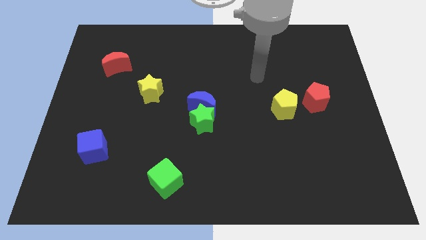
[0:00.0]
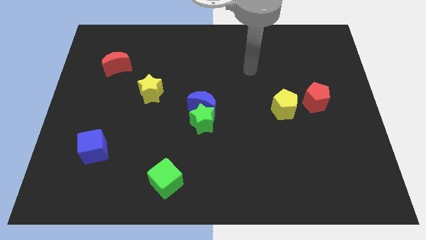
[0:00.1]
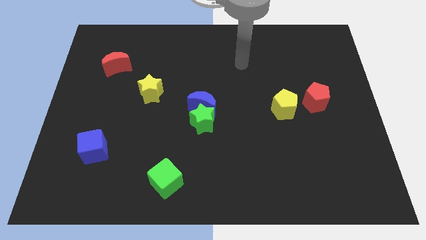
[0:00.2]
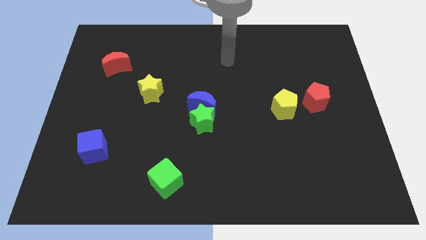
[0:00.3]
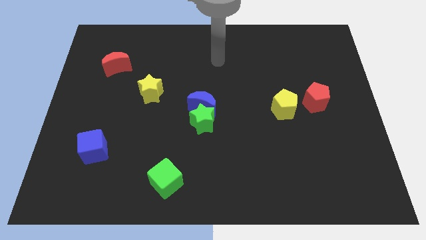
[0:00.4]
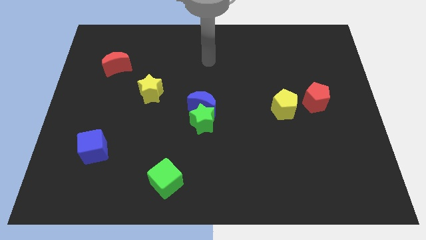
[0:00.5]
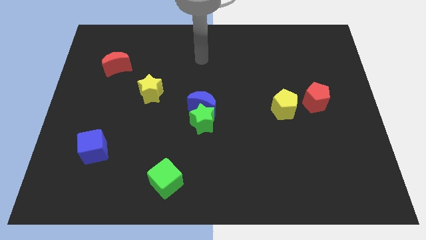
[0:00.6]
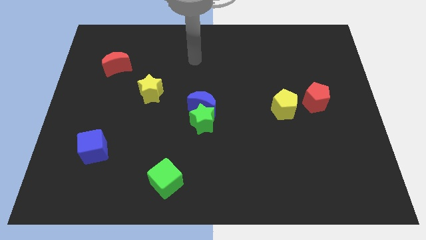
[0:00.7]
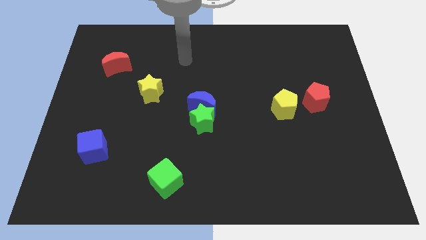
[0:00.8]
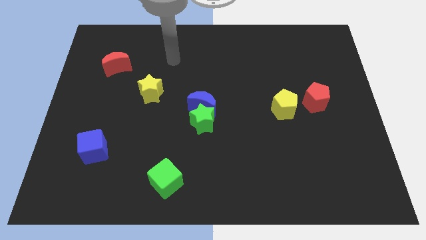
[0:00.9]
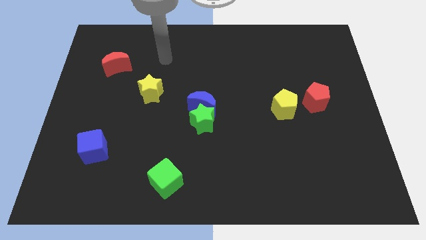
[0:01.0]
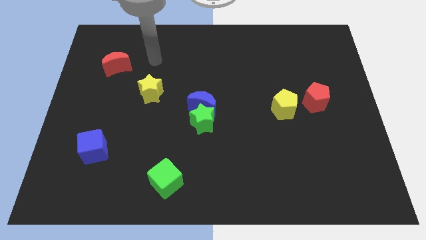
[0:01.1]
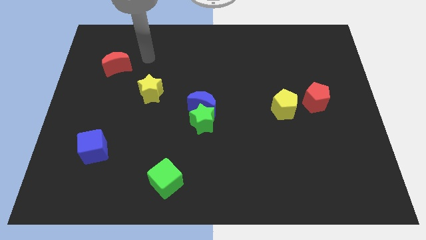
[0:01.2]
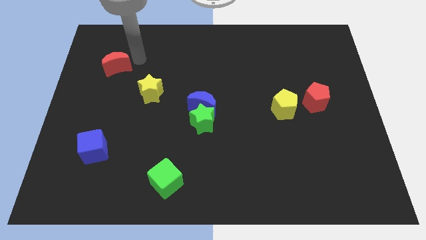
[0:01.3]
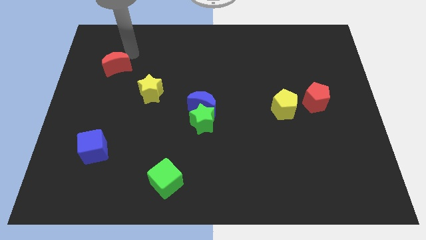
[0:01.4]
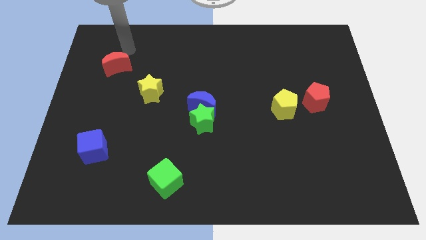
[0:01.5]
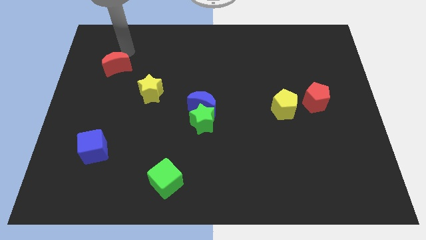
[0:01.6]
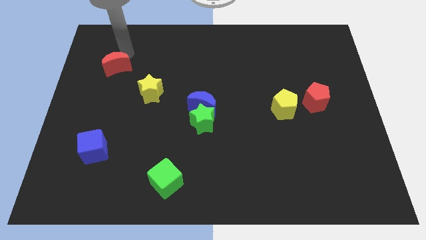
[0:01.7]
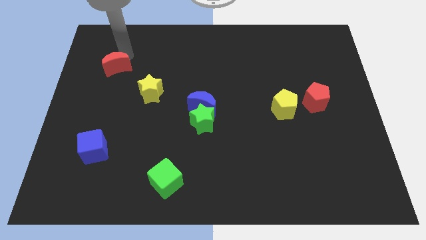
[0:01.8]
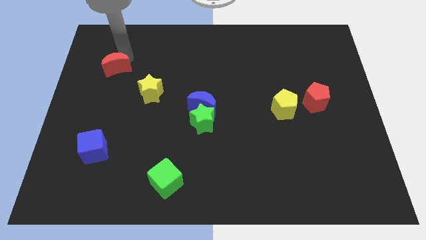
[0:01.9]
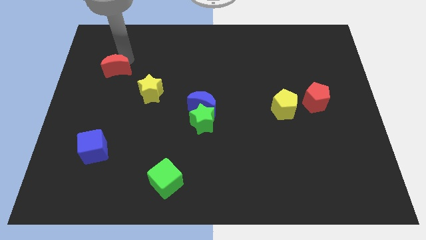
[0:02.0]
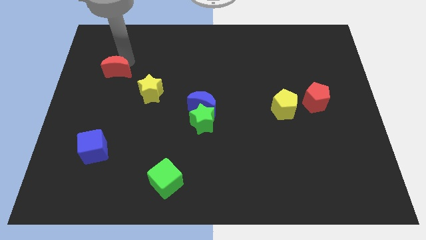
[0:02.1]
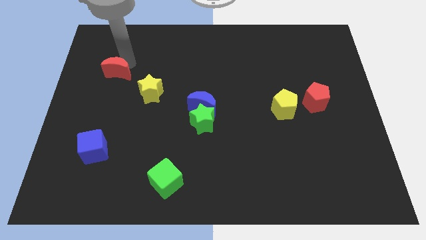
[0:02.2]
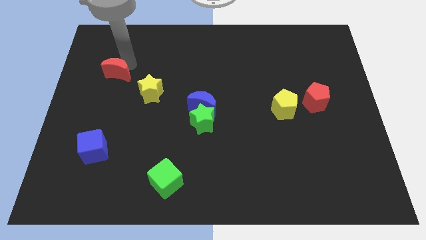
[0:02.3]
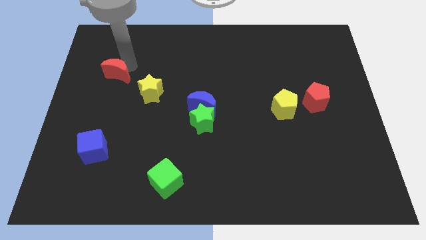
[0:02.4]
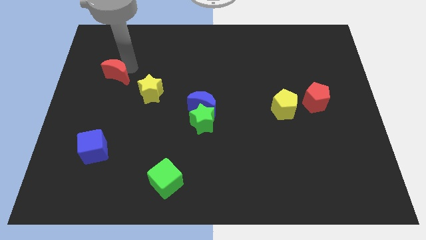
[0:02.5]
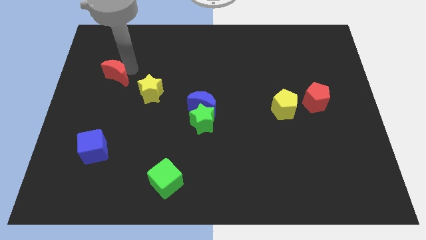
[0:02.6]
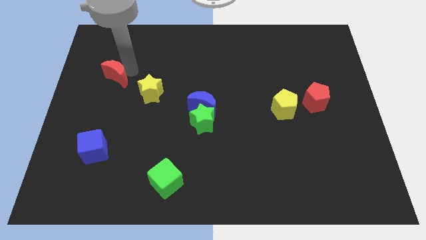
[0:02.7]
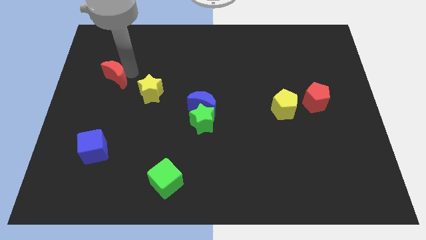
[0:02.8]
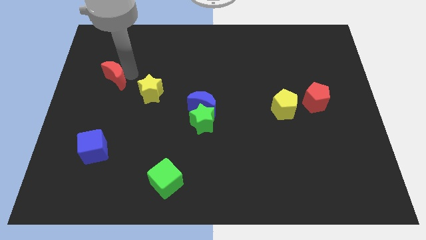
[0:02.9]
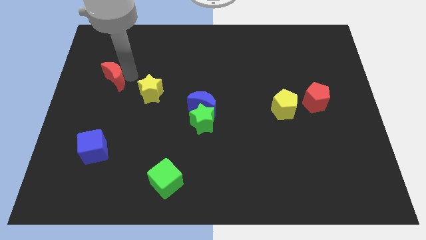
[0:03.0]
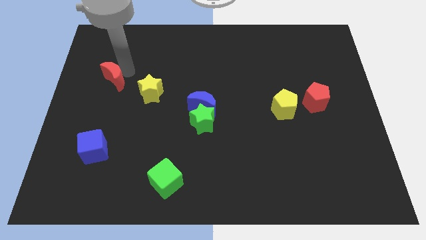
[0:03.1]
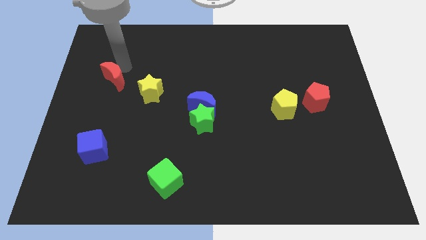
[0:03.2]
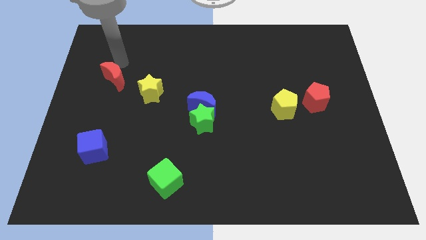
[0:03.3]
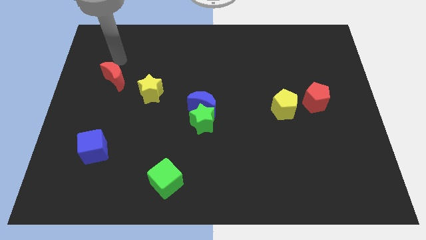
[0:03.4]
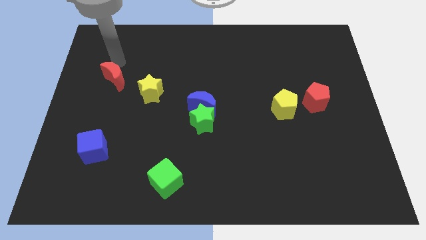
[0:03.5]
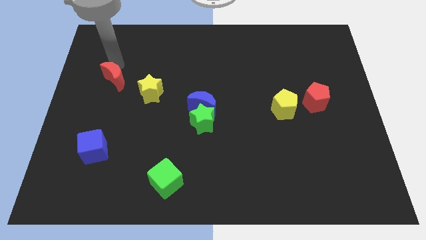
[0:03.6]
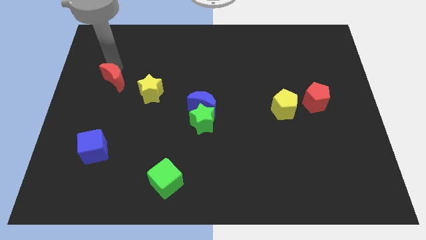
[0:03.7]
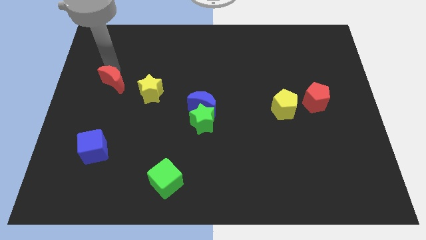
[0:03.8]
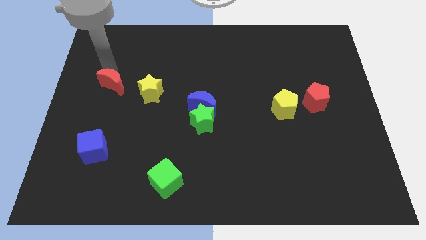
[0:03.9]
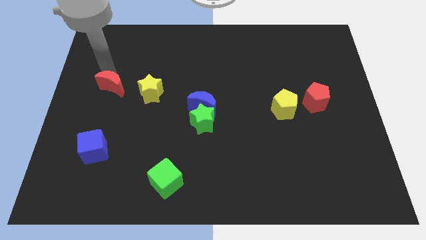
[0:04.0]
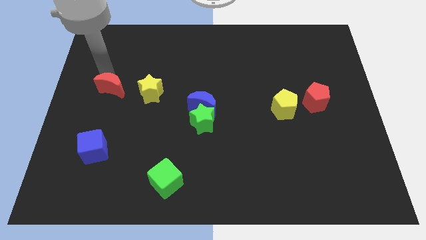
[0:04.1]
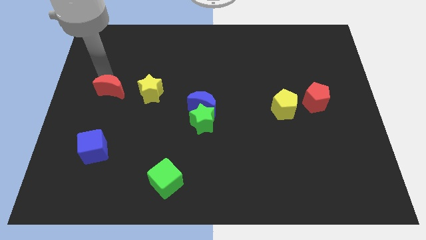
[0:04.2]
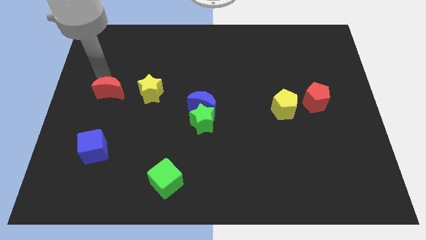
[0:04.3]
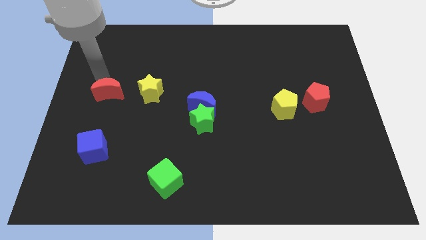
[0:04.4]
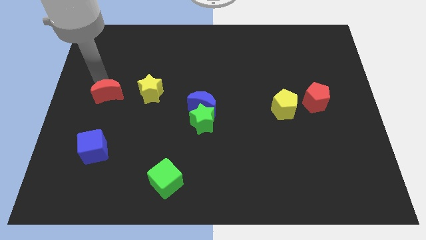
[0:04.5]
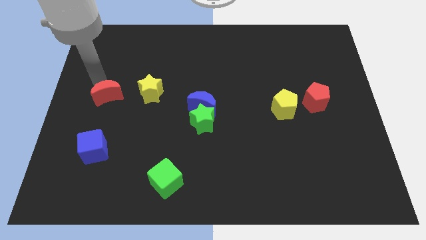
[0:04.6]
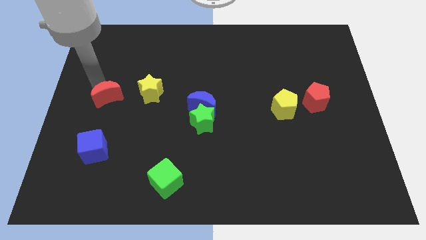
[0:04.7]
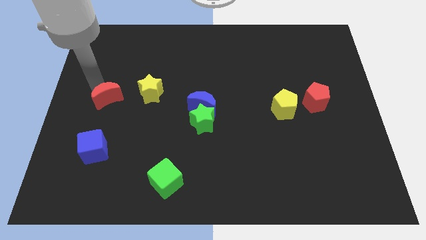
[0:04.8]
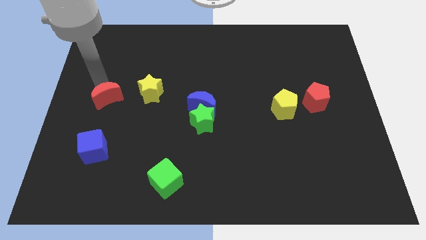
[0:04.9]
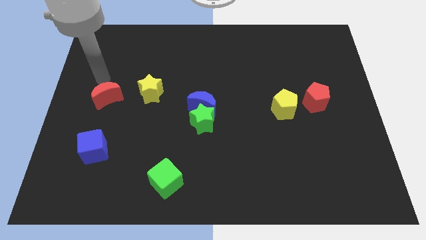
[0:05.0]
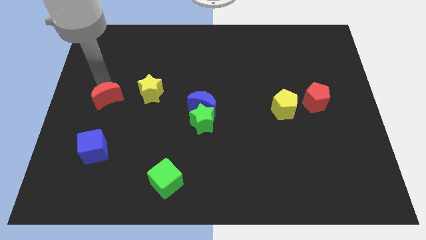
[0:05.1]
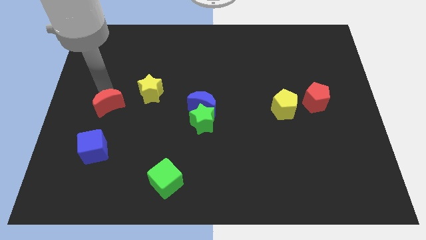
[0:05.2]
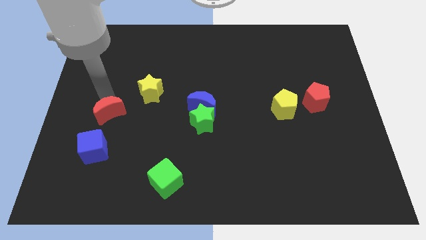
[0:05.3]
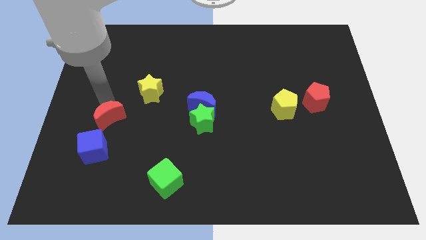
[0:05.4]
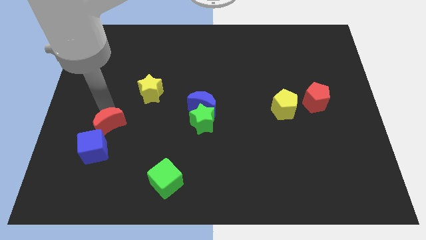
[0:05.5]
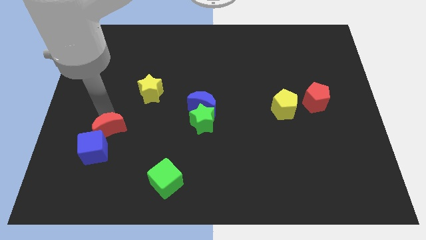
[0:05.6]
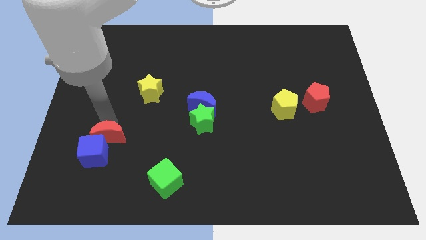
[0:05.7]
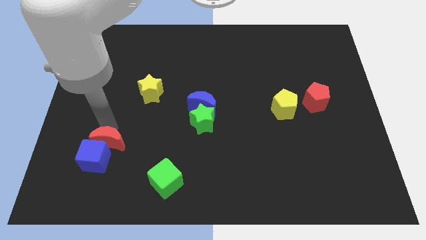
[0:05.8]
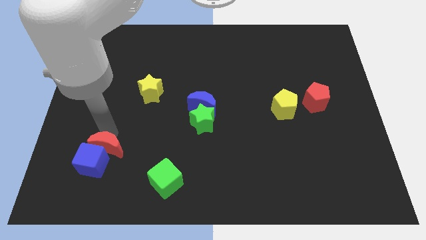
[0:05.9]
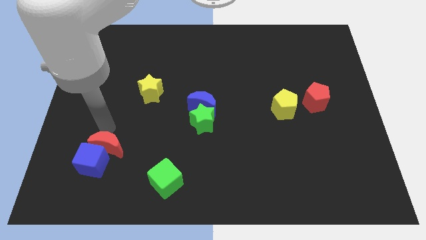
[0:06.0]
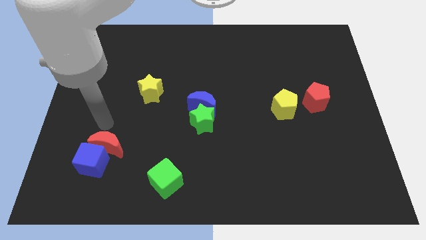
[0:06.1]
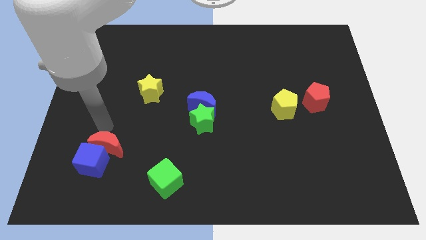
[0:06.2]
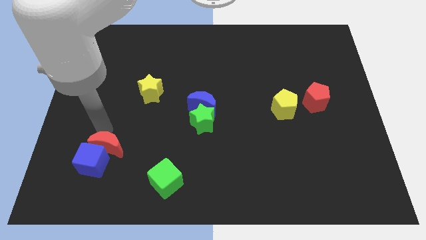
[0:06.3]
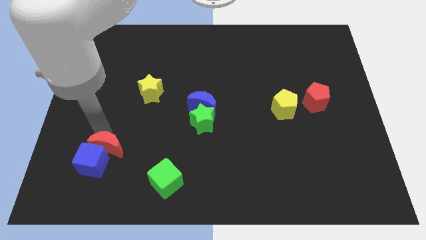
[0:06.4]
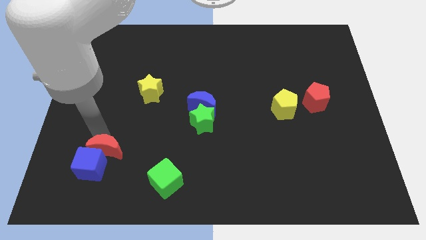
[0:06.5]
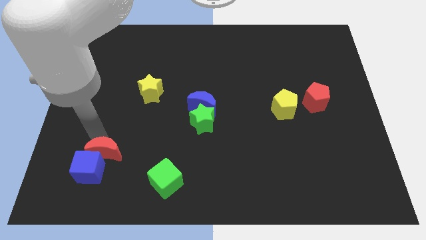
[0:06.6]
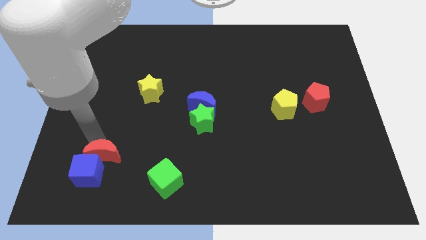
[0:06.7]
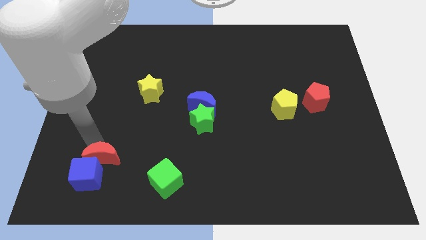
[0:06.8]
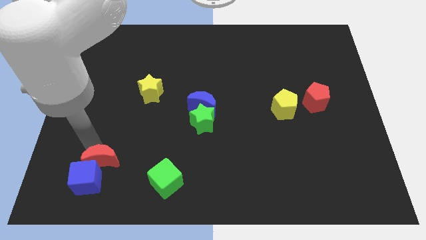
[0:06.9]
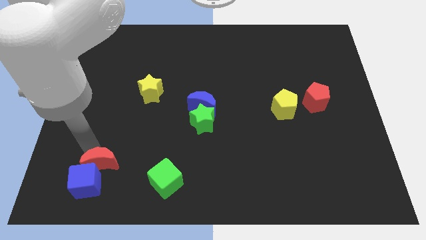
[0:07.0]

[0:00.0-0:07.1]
slide the red moon just left of the green cube

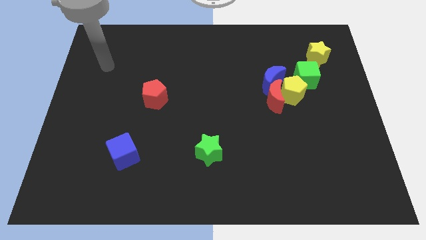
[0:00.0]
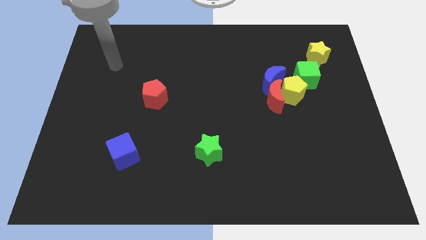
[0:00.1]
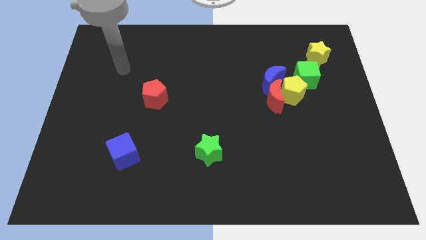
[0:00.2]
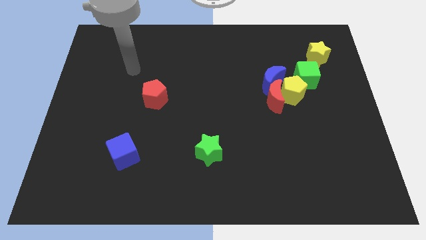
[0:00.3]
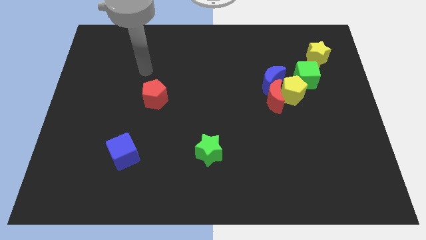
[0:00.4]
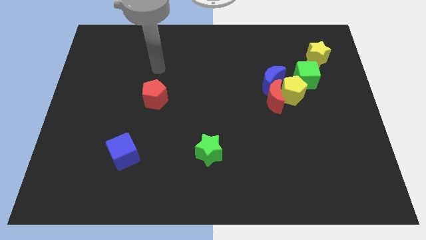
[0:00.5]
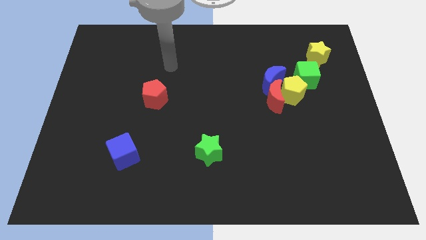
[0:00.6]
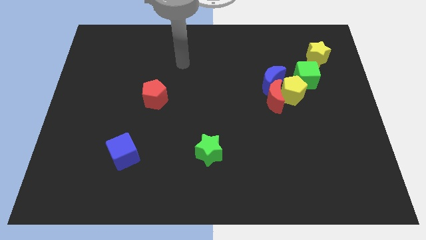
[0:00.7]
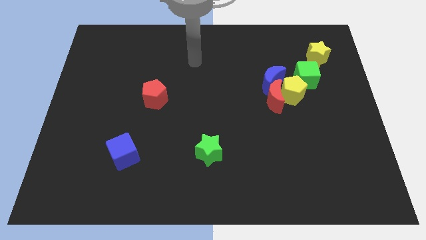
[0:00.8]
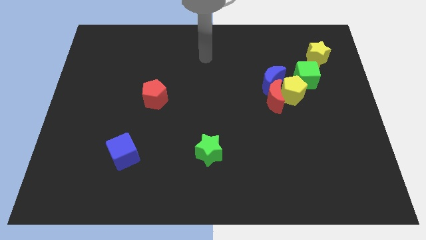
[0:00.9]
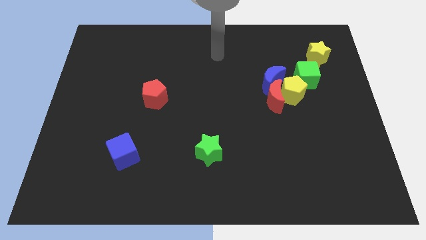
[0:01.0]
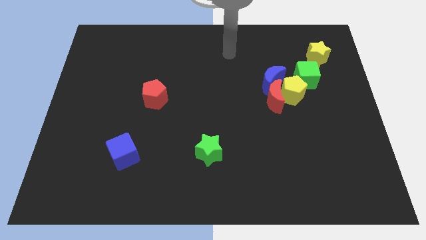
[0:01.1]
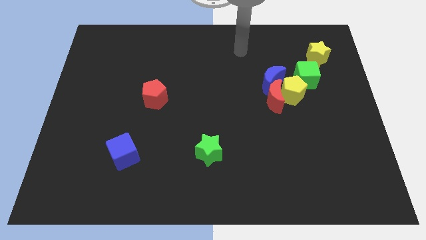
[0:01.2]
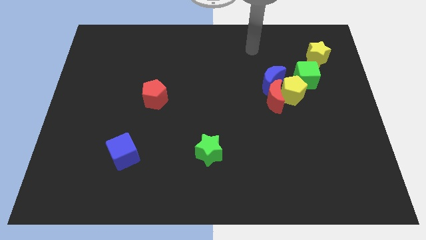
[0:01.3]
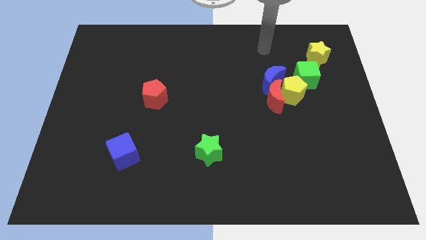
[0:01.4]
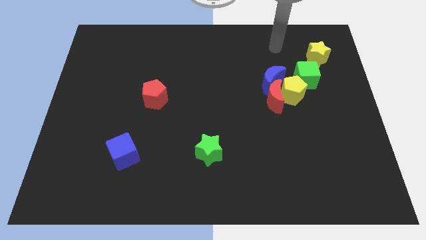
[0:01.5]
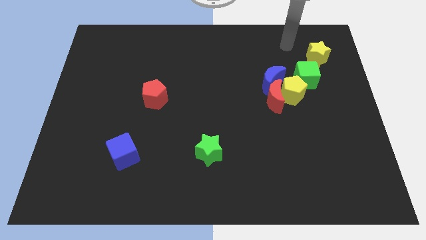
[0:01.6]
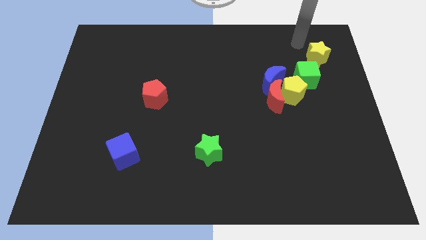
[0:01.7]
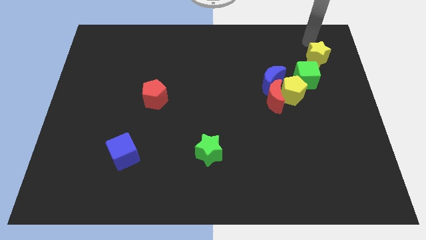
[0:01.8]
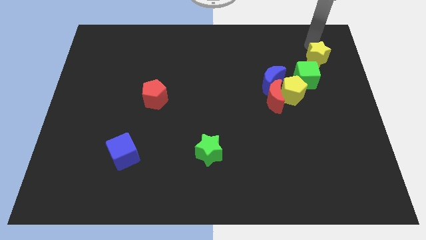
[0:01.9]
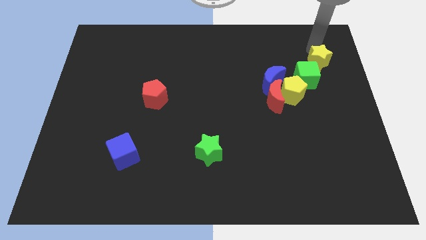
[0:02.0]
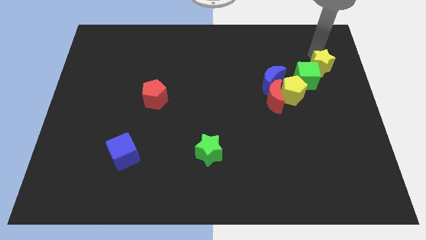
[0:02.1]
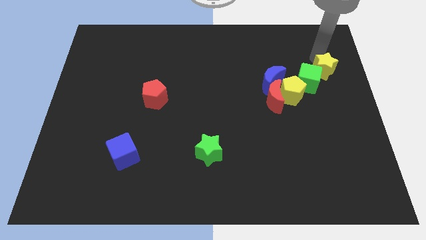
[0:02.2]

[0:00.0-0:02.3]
push the yellow star to the right of the blue moon
